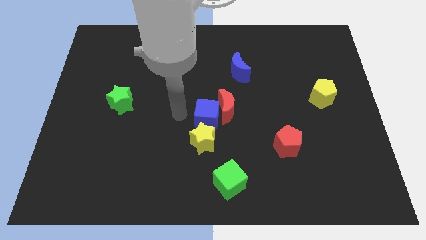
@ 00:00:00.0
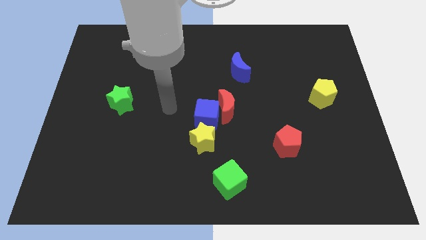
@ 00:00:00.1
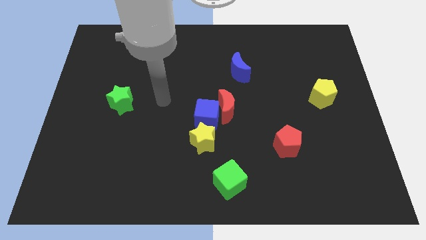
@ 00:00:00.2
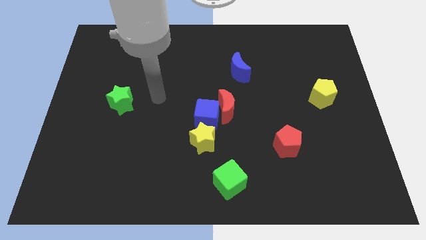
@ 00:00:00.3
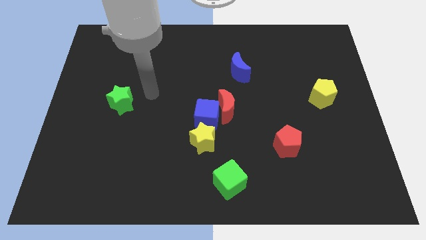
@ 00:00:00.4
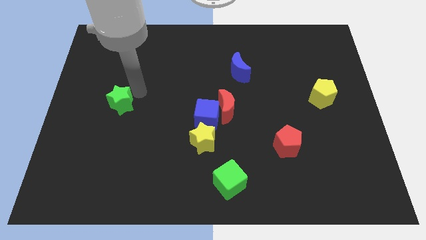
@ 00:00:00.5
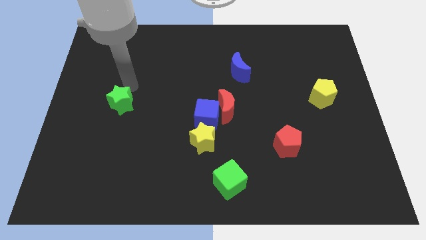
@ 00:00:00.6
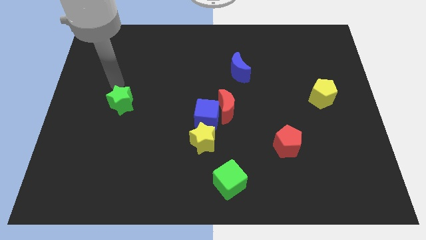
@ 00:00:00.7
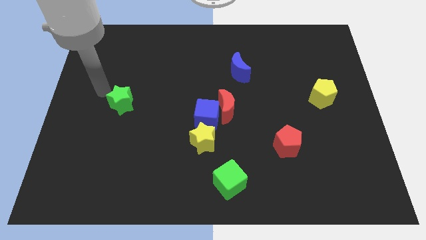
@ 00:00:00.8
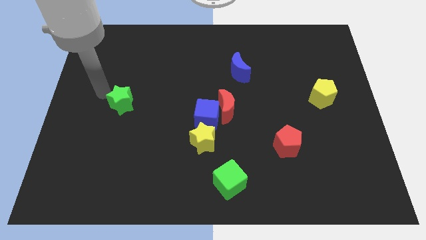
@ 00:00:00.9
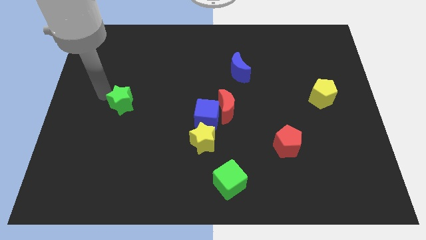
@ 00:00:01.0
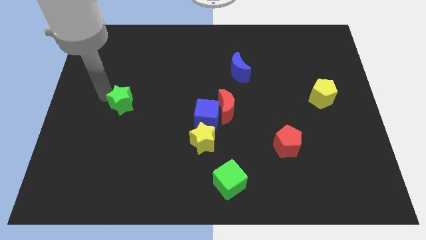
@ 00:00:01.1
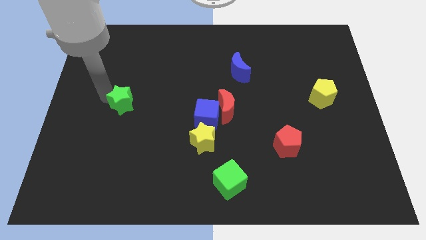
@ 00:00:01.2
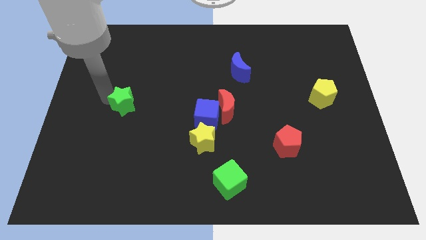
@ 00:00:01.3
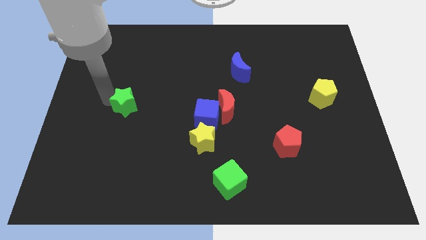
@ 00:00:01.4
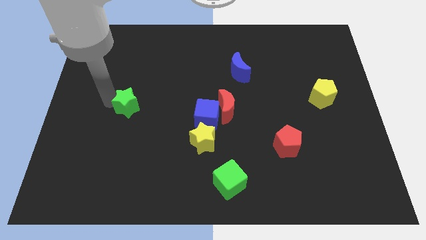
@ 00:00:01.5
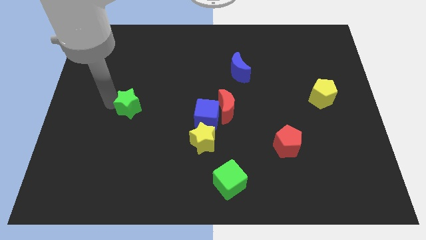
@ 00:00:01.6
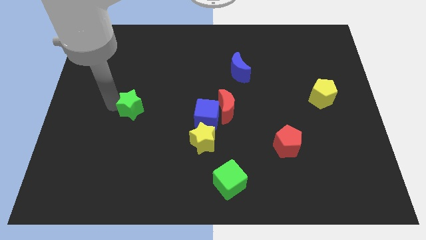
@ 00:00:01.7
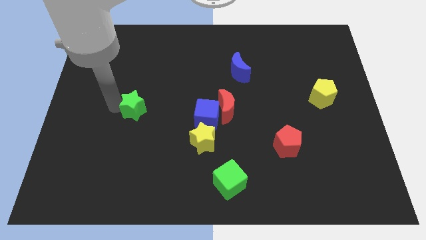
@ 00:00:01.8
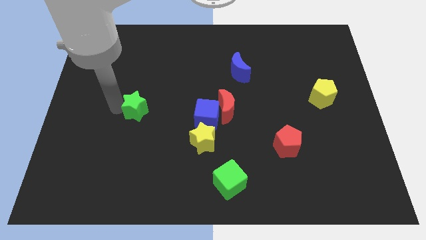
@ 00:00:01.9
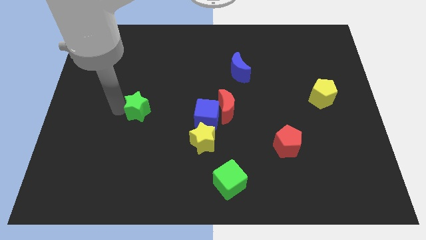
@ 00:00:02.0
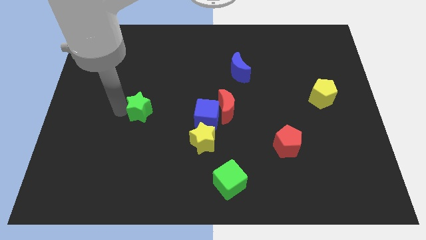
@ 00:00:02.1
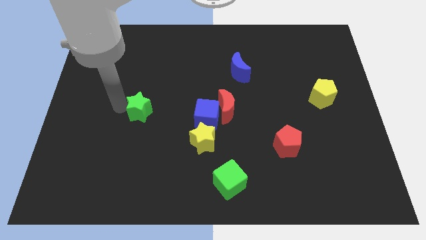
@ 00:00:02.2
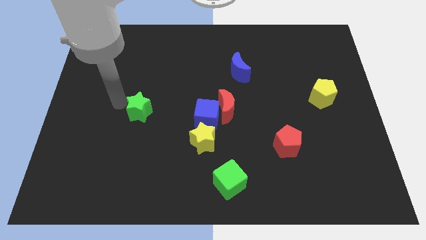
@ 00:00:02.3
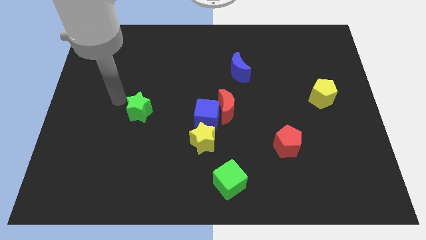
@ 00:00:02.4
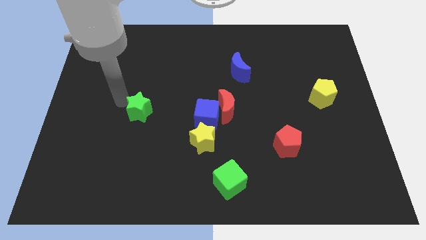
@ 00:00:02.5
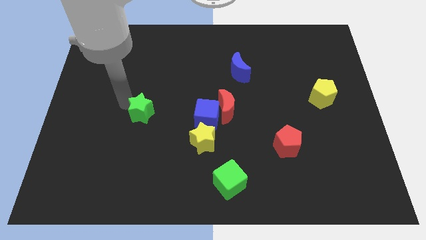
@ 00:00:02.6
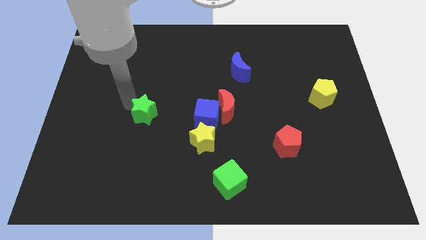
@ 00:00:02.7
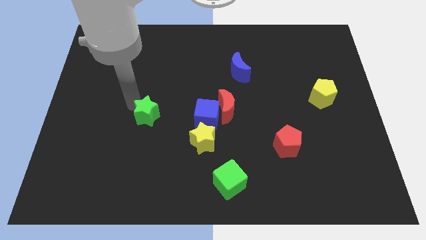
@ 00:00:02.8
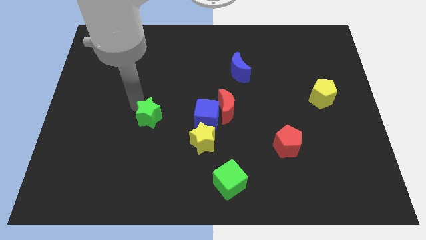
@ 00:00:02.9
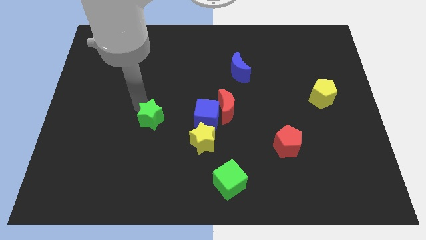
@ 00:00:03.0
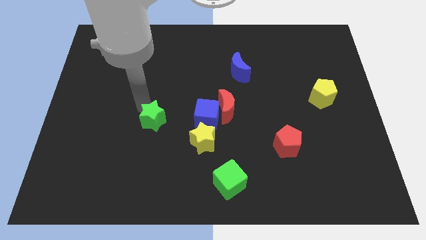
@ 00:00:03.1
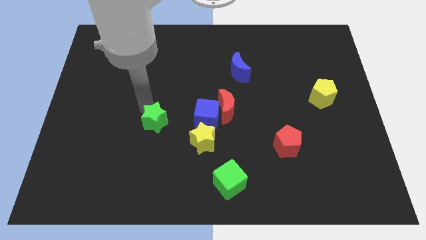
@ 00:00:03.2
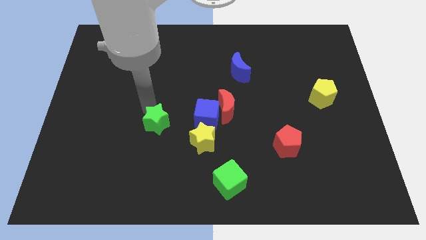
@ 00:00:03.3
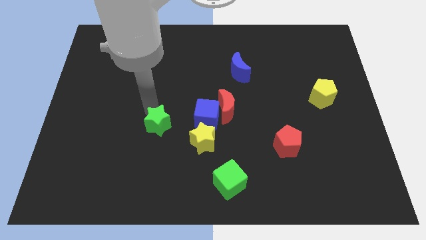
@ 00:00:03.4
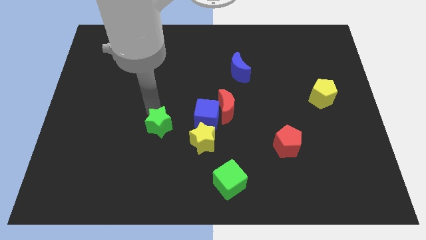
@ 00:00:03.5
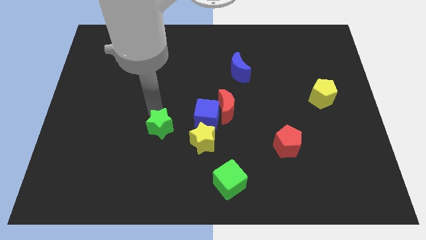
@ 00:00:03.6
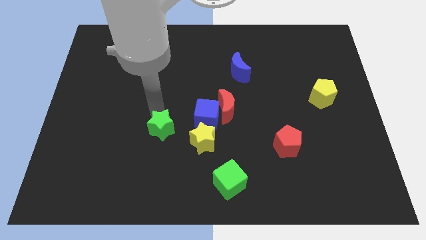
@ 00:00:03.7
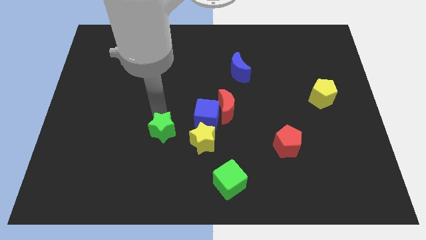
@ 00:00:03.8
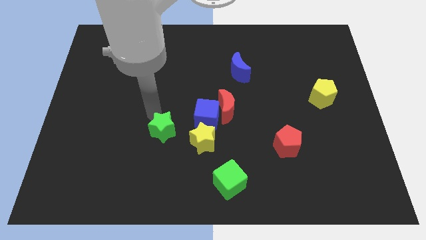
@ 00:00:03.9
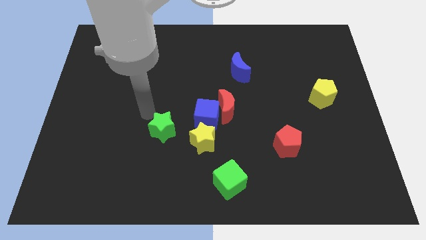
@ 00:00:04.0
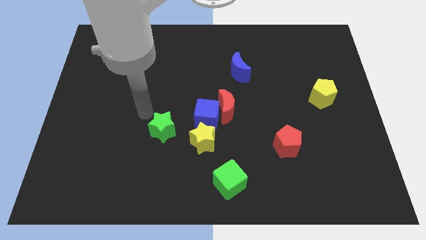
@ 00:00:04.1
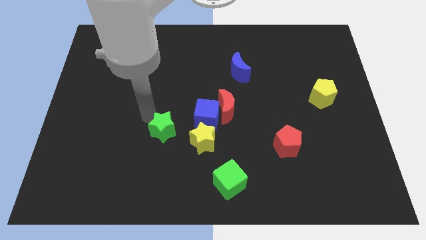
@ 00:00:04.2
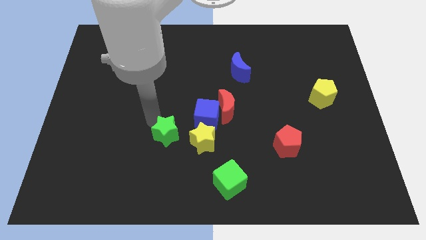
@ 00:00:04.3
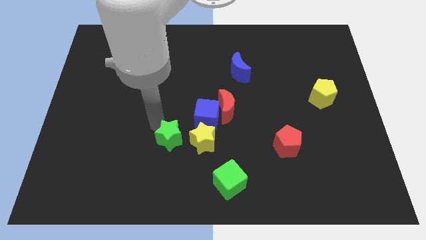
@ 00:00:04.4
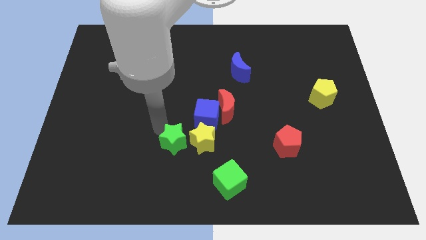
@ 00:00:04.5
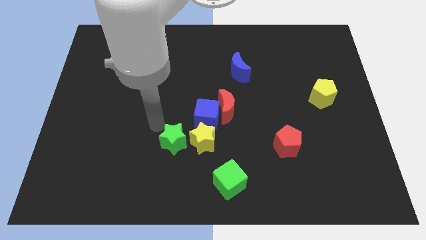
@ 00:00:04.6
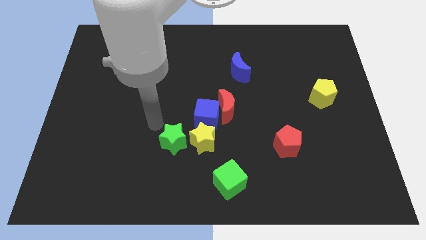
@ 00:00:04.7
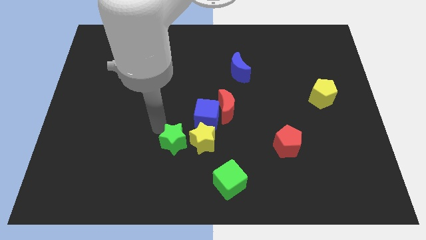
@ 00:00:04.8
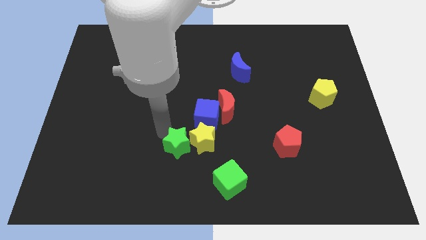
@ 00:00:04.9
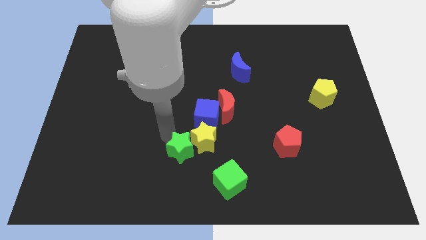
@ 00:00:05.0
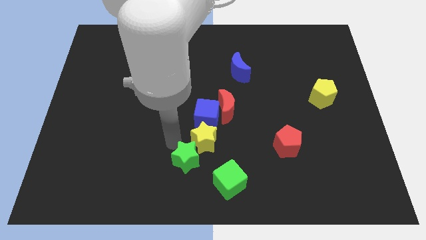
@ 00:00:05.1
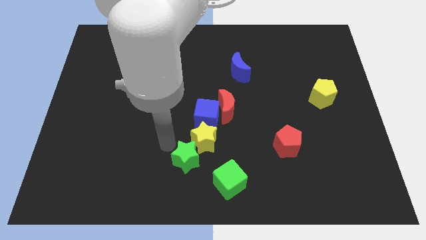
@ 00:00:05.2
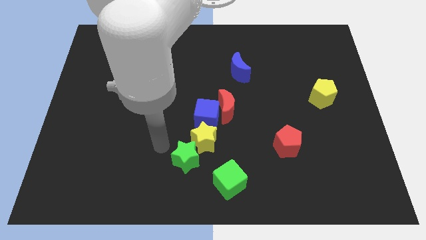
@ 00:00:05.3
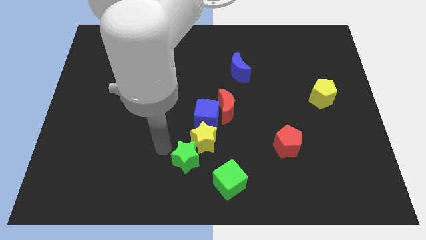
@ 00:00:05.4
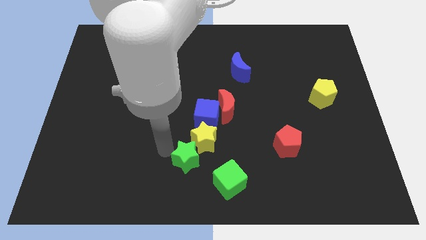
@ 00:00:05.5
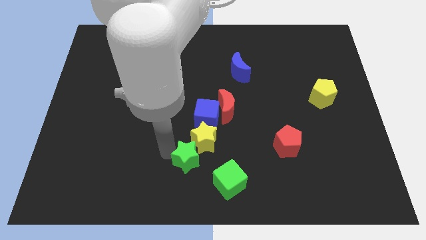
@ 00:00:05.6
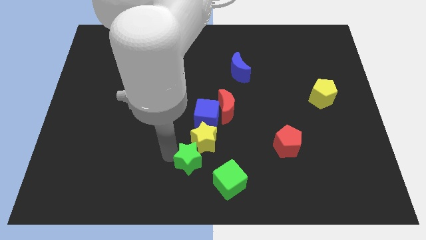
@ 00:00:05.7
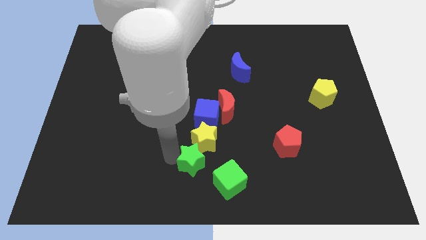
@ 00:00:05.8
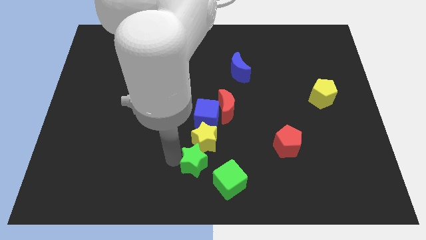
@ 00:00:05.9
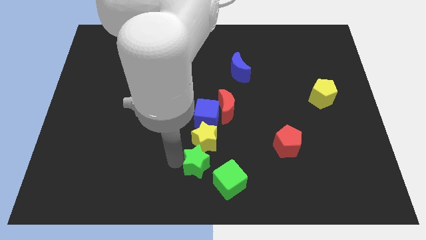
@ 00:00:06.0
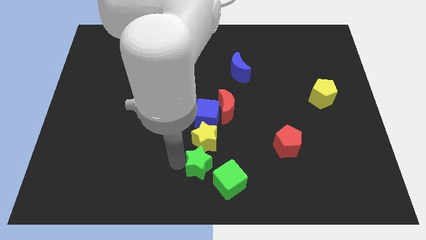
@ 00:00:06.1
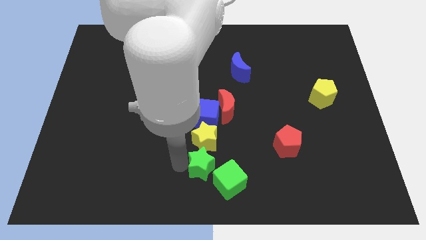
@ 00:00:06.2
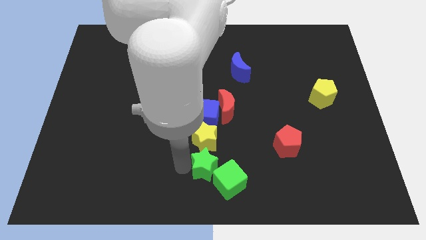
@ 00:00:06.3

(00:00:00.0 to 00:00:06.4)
put the green star towards the green cube
